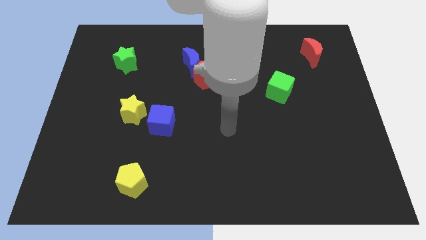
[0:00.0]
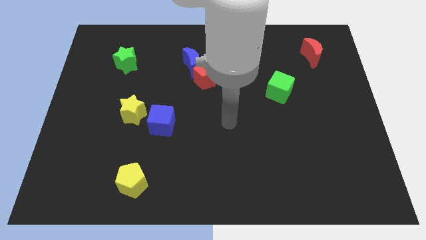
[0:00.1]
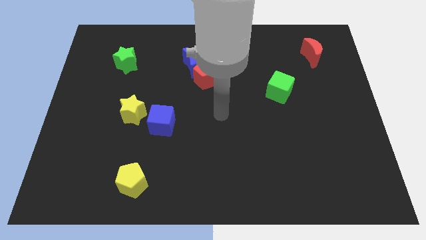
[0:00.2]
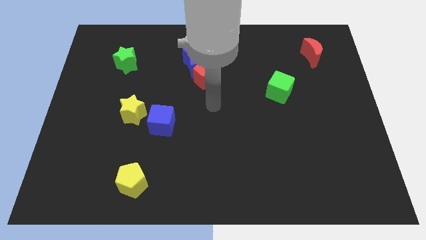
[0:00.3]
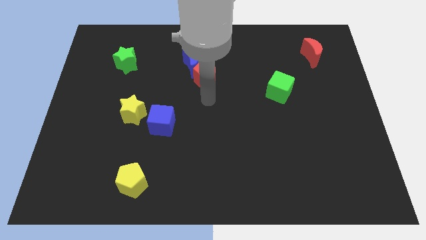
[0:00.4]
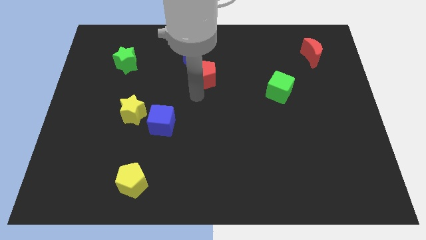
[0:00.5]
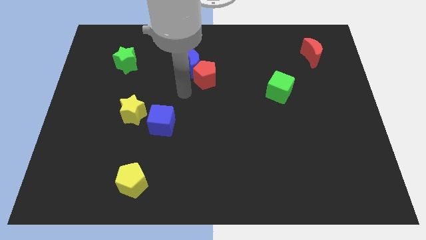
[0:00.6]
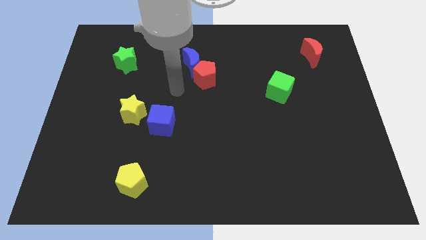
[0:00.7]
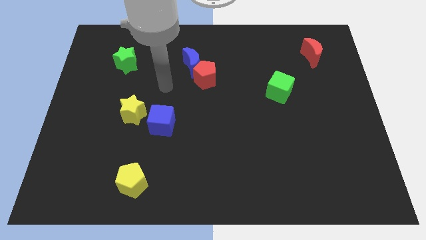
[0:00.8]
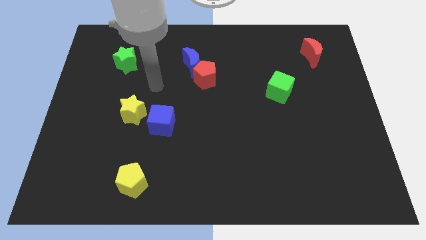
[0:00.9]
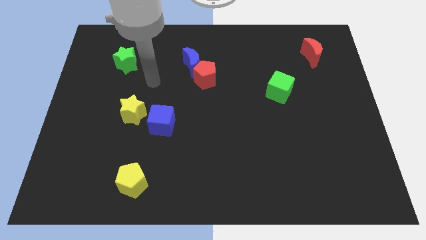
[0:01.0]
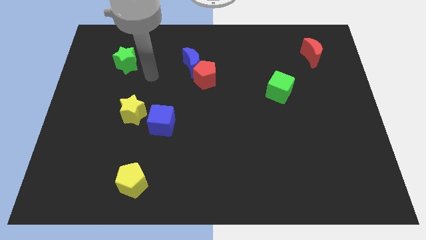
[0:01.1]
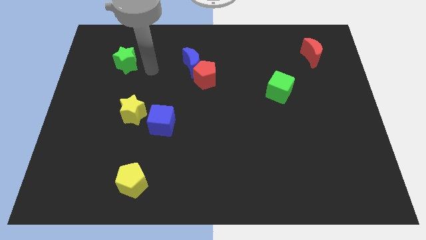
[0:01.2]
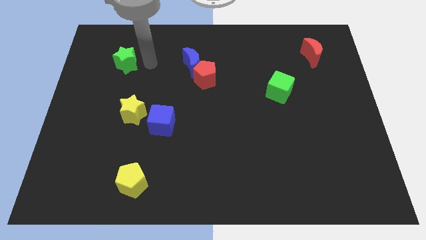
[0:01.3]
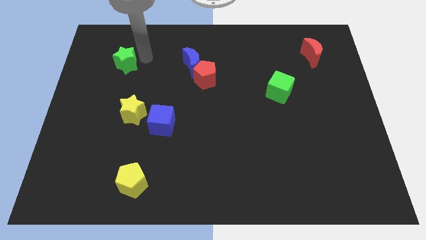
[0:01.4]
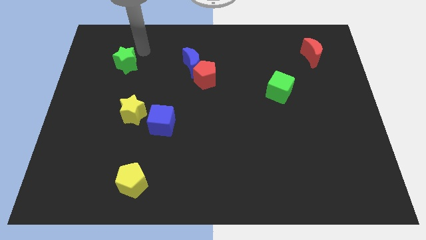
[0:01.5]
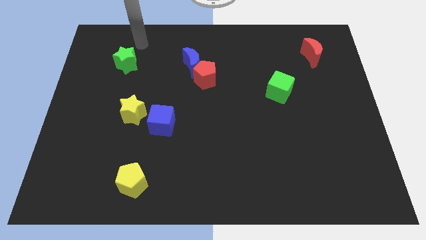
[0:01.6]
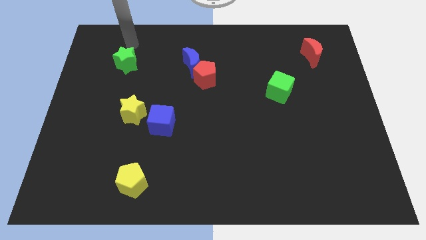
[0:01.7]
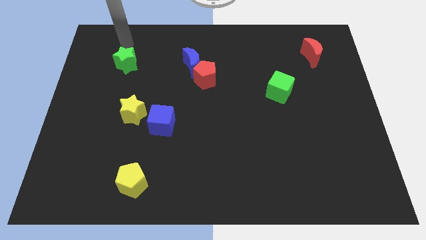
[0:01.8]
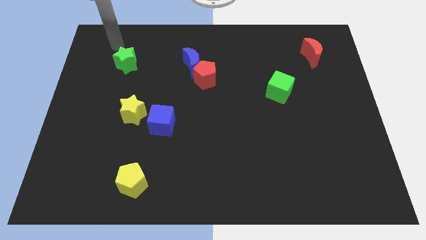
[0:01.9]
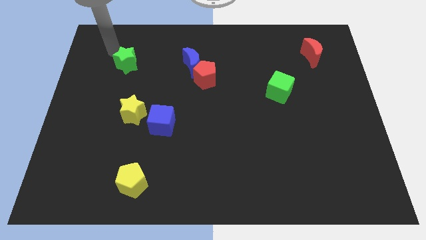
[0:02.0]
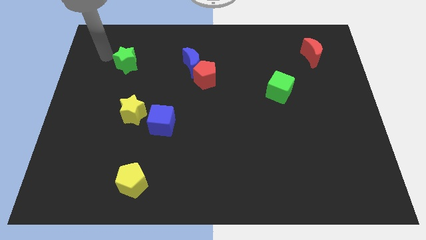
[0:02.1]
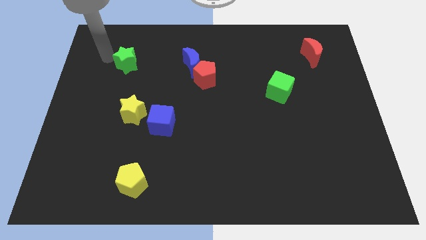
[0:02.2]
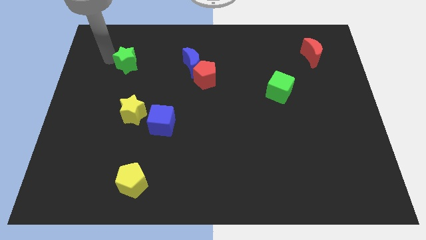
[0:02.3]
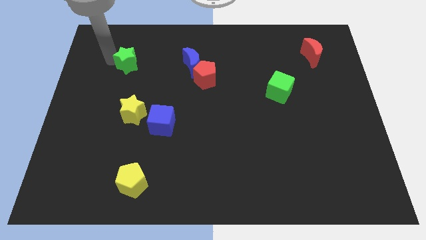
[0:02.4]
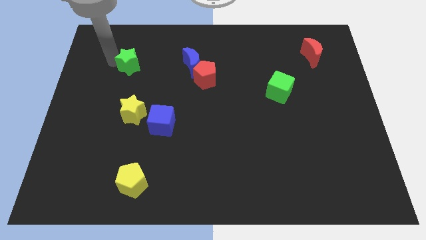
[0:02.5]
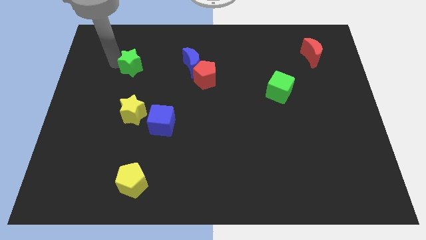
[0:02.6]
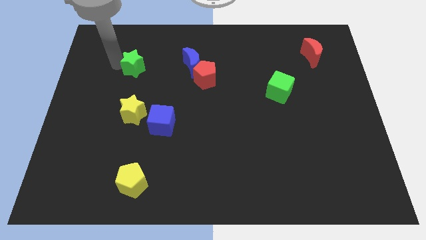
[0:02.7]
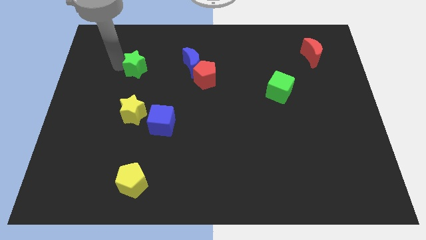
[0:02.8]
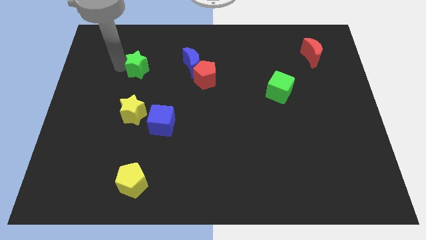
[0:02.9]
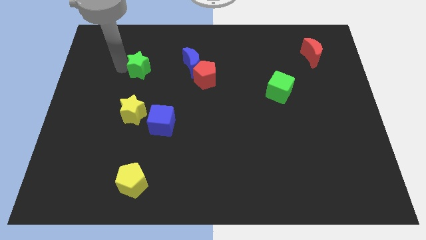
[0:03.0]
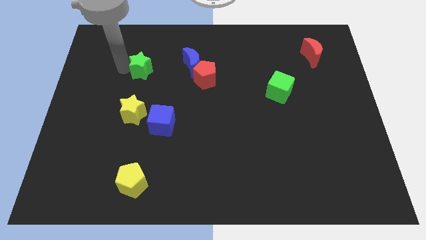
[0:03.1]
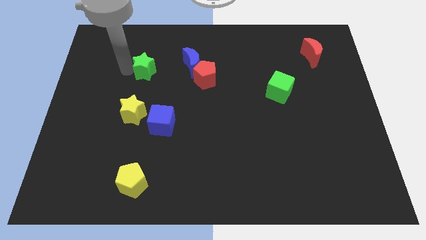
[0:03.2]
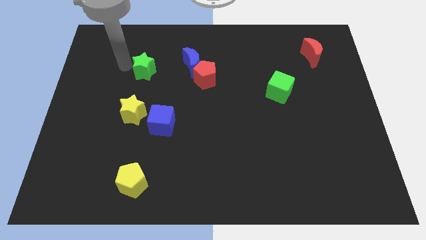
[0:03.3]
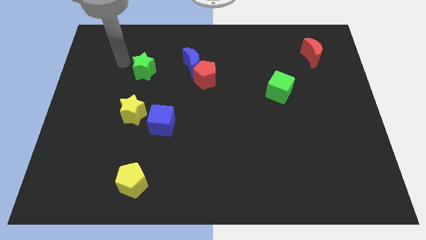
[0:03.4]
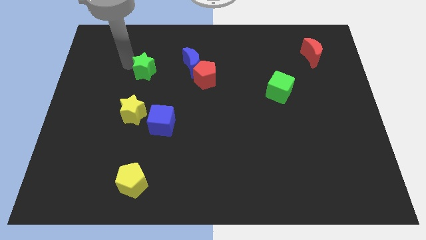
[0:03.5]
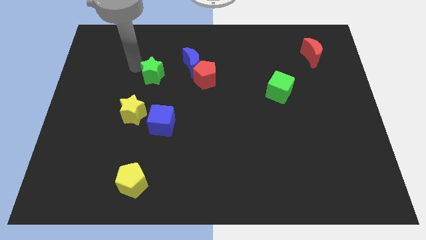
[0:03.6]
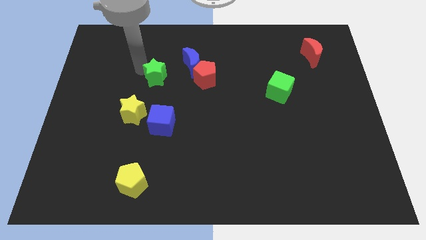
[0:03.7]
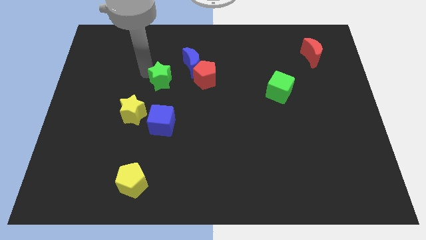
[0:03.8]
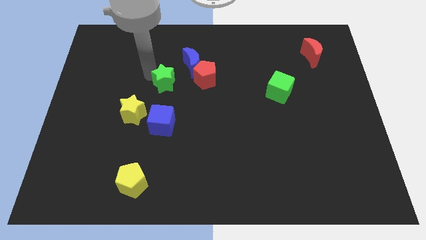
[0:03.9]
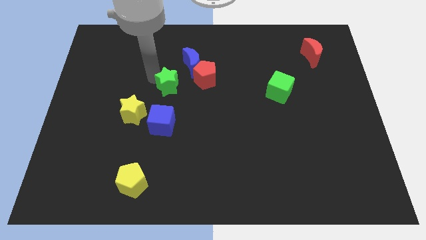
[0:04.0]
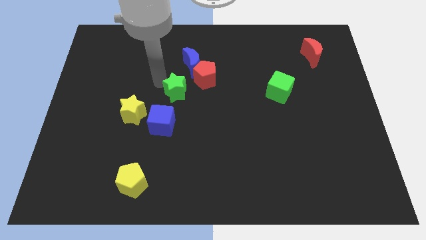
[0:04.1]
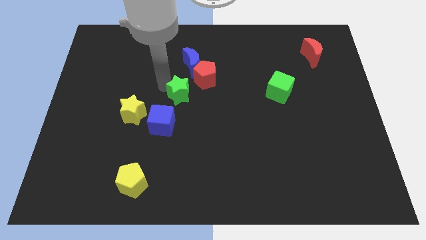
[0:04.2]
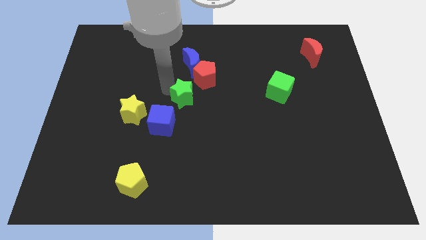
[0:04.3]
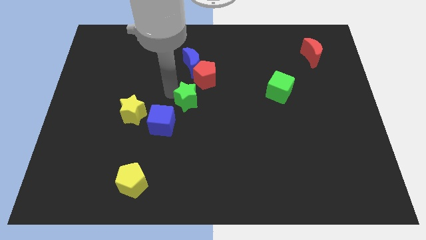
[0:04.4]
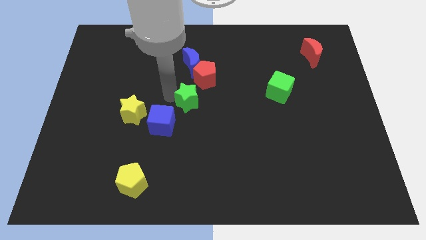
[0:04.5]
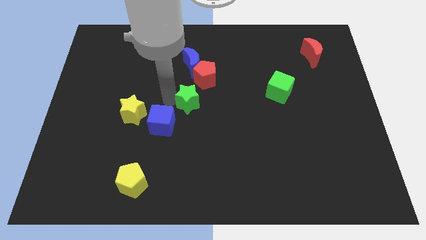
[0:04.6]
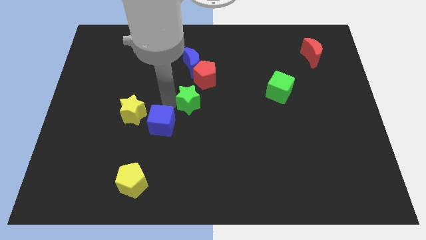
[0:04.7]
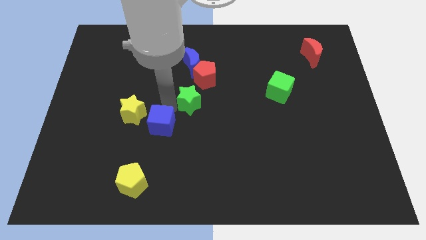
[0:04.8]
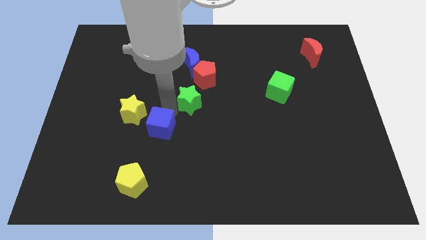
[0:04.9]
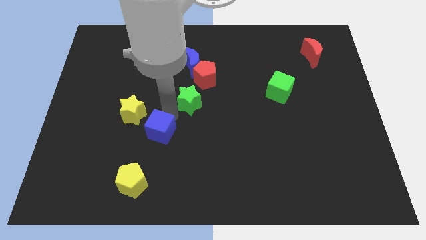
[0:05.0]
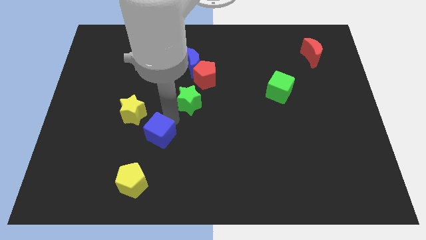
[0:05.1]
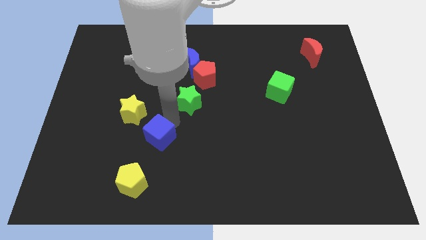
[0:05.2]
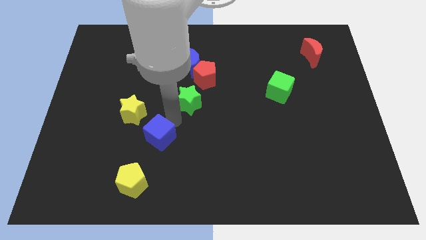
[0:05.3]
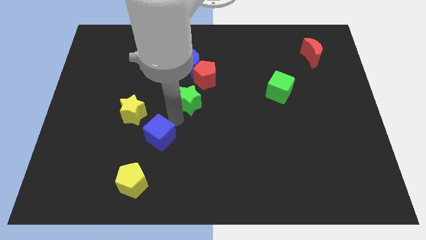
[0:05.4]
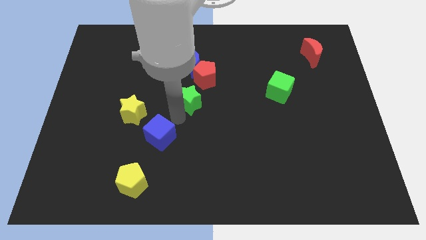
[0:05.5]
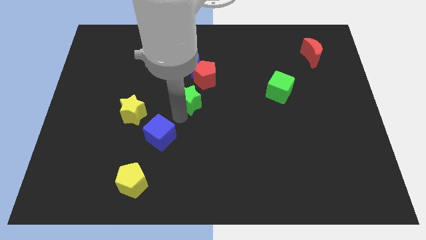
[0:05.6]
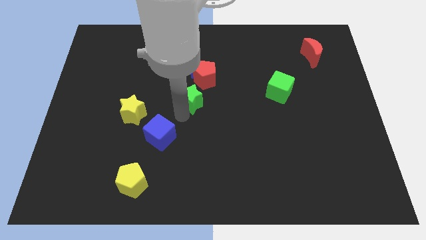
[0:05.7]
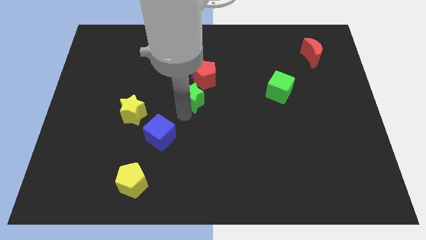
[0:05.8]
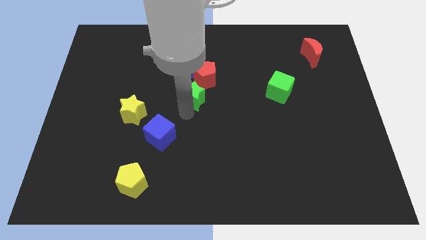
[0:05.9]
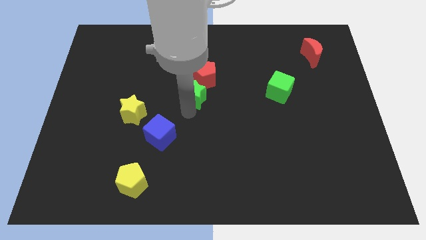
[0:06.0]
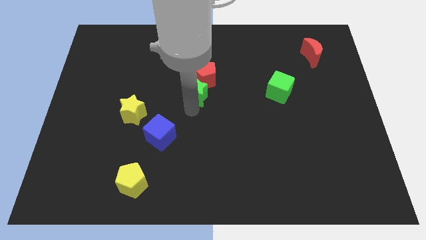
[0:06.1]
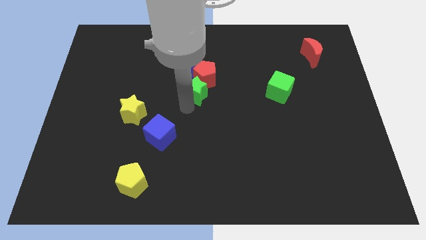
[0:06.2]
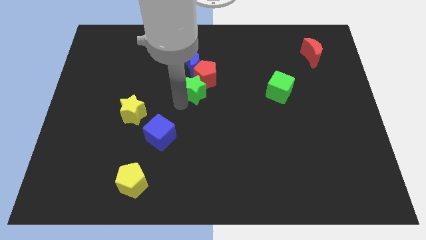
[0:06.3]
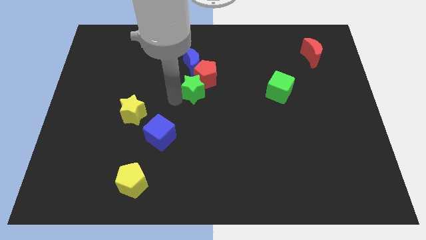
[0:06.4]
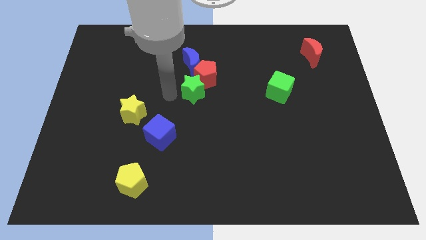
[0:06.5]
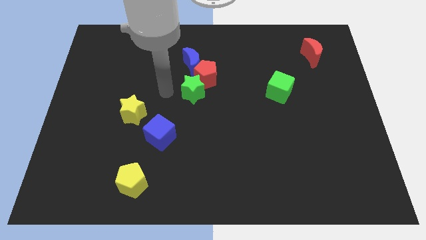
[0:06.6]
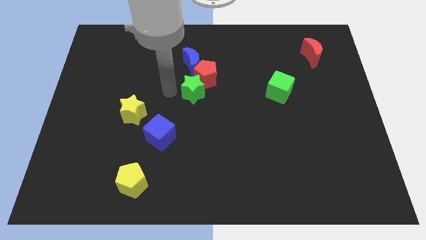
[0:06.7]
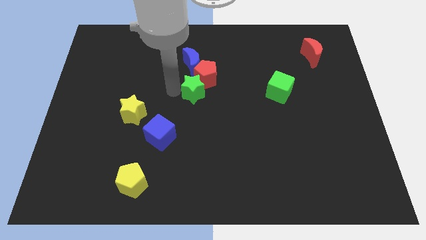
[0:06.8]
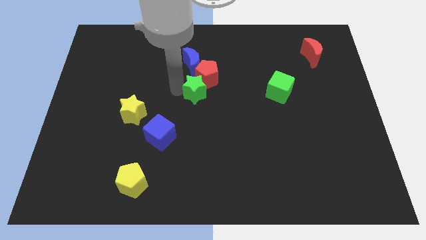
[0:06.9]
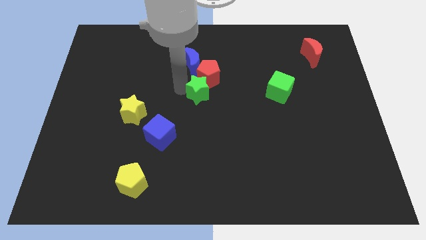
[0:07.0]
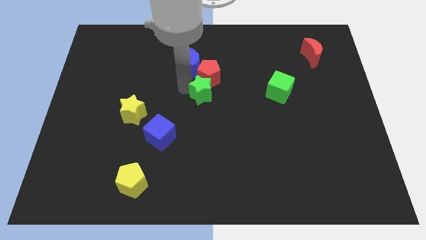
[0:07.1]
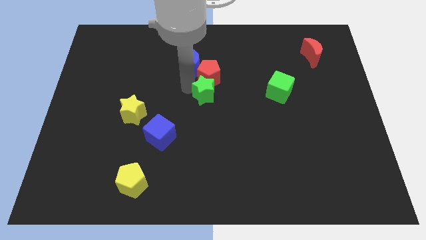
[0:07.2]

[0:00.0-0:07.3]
push the green star to the bottom right side of the red pentagon
